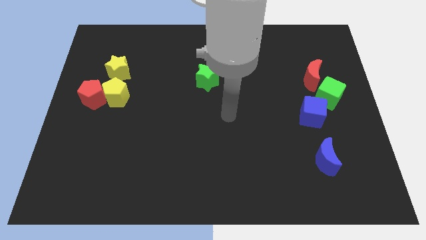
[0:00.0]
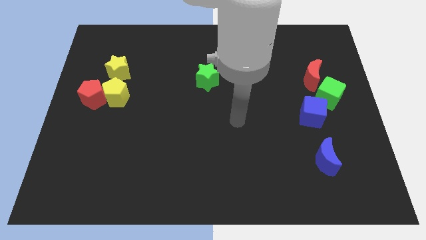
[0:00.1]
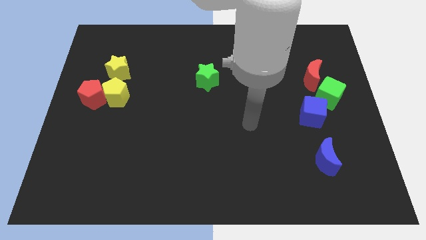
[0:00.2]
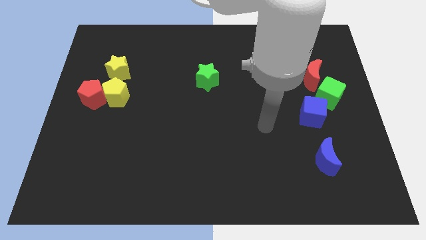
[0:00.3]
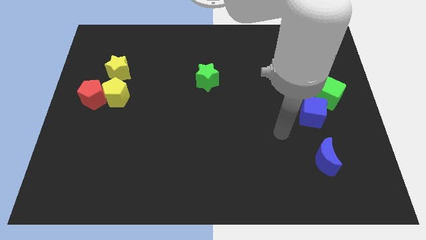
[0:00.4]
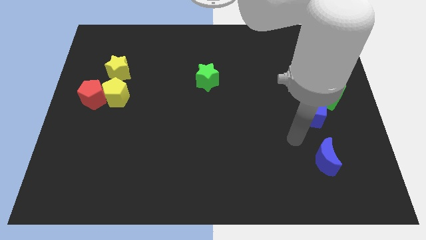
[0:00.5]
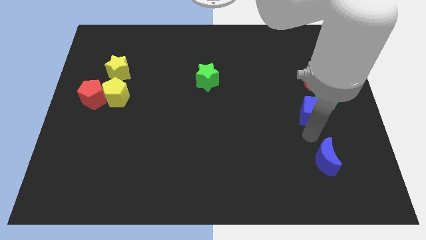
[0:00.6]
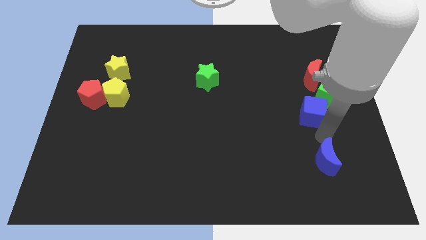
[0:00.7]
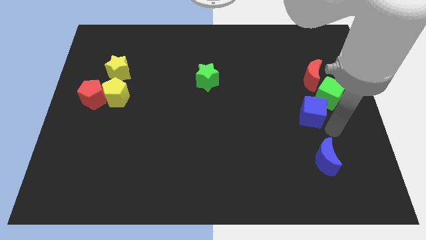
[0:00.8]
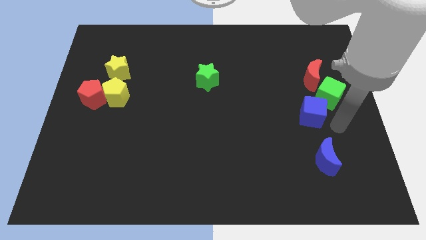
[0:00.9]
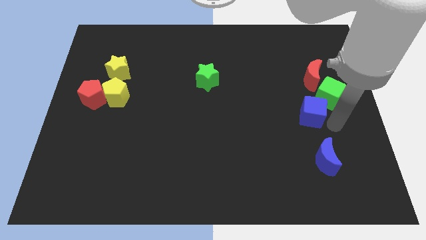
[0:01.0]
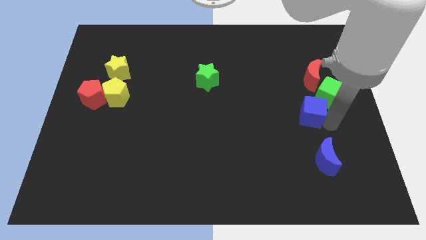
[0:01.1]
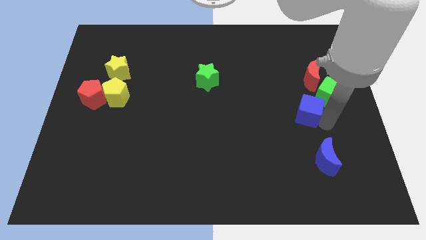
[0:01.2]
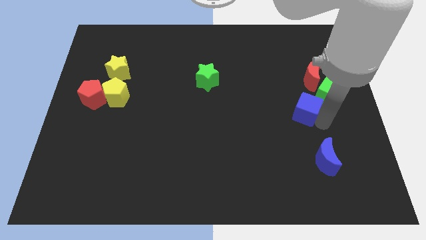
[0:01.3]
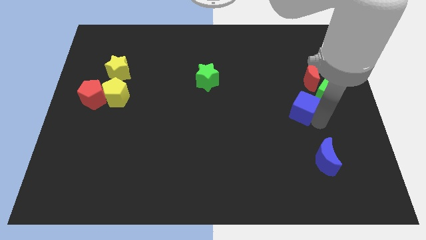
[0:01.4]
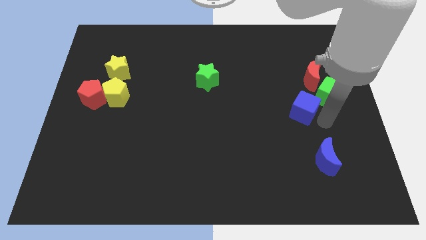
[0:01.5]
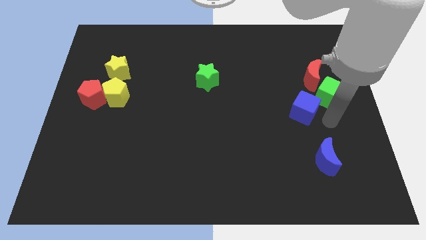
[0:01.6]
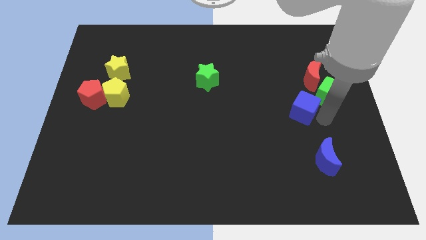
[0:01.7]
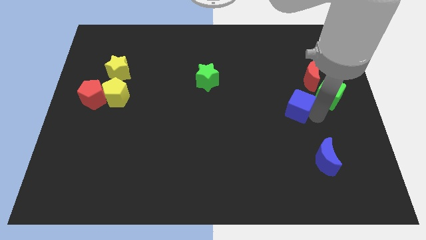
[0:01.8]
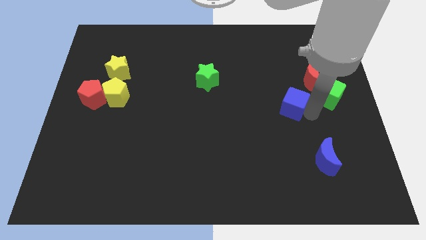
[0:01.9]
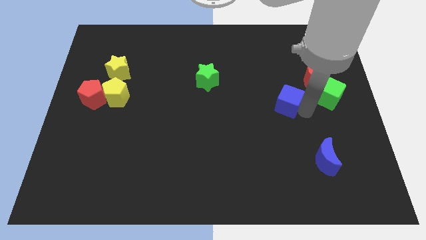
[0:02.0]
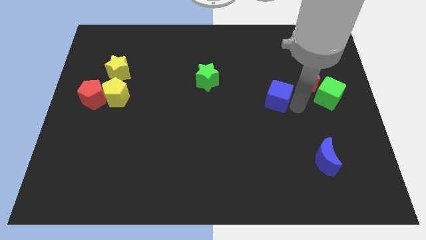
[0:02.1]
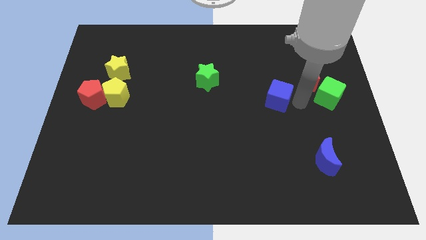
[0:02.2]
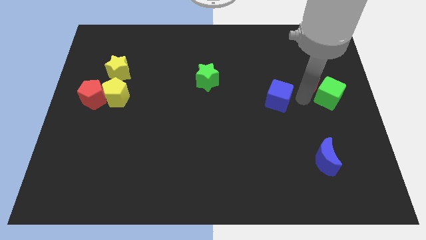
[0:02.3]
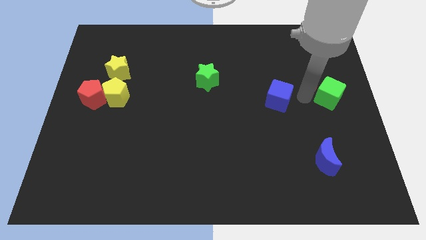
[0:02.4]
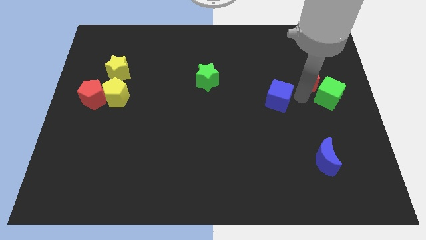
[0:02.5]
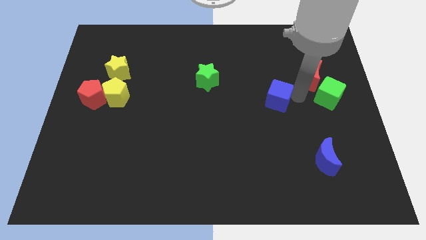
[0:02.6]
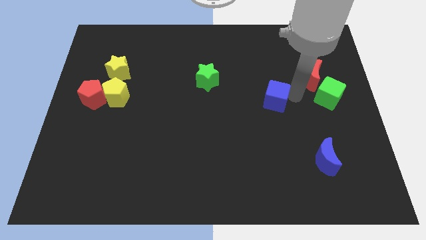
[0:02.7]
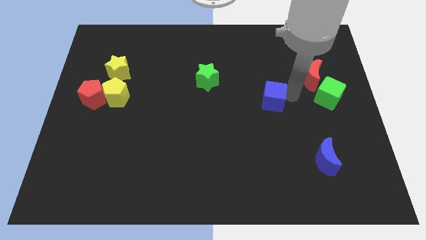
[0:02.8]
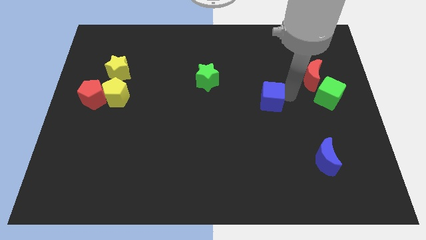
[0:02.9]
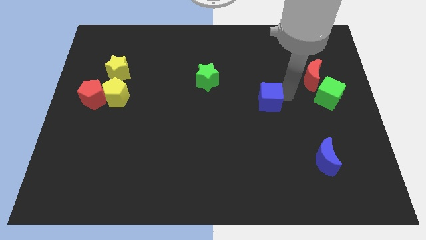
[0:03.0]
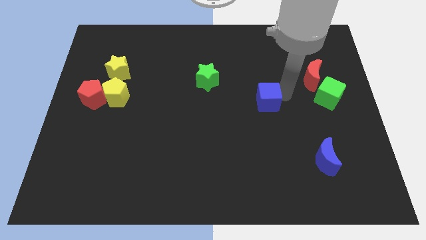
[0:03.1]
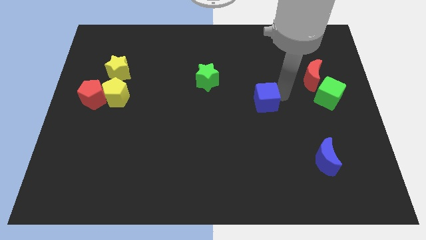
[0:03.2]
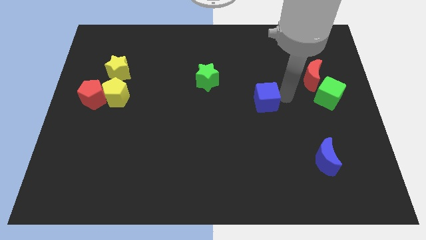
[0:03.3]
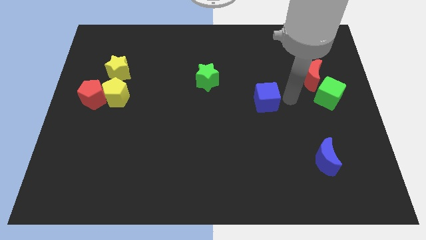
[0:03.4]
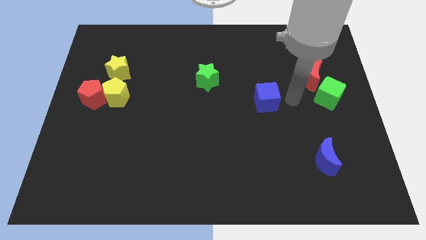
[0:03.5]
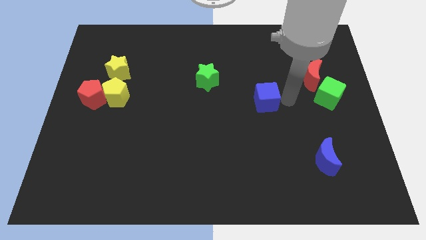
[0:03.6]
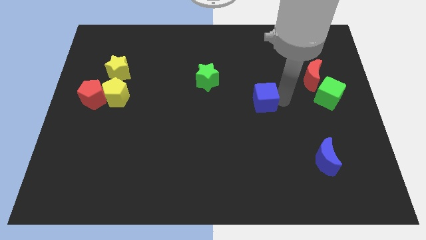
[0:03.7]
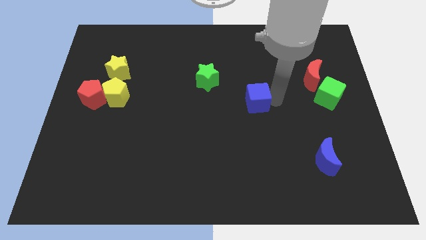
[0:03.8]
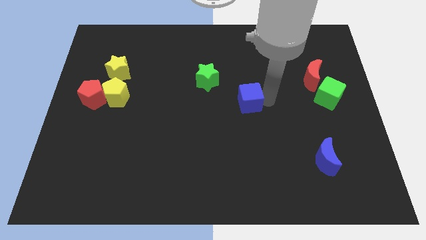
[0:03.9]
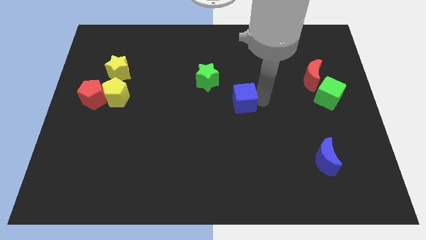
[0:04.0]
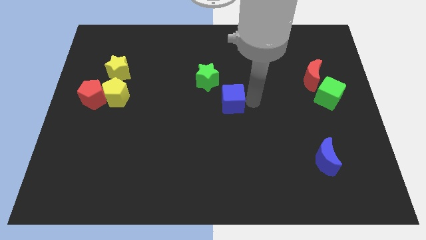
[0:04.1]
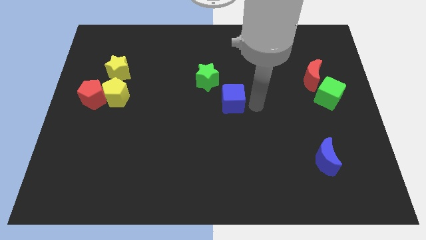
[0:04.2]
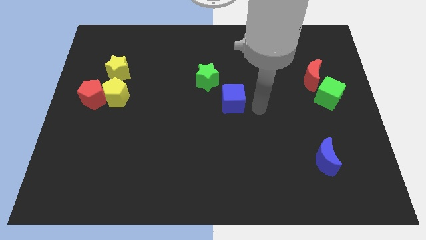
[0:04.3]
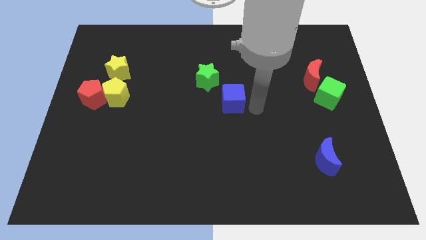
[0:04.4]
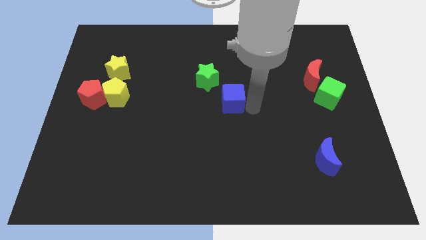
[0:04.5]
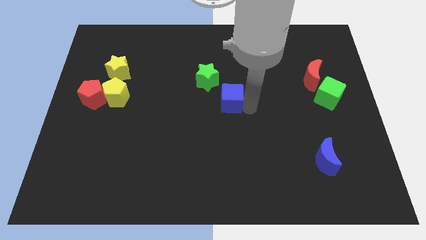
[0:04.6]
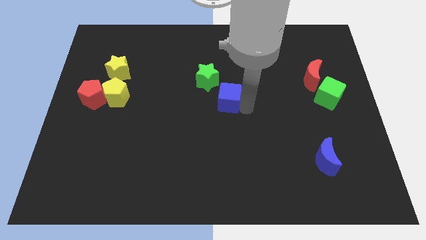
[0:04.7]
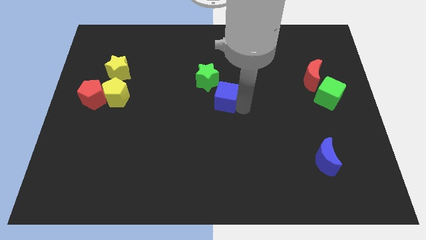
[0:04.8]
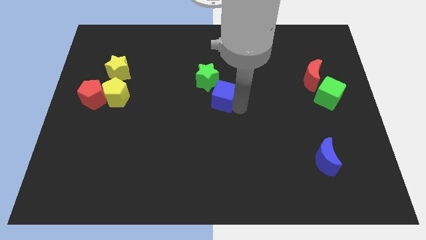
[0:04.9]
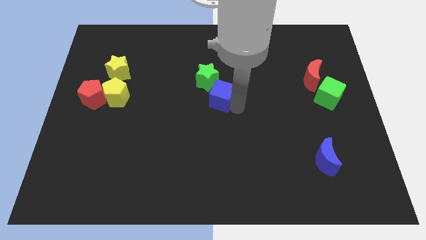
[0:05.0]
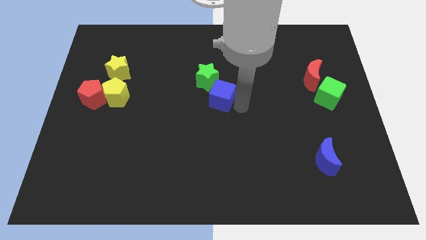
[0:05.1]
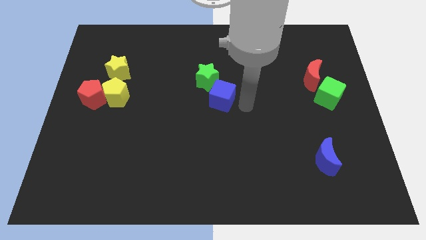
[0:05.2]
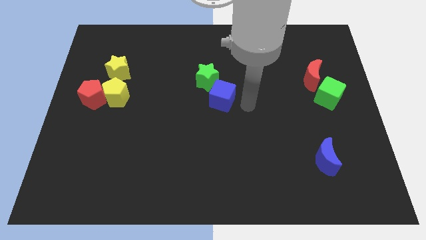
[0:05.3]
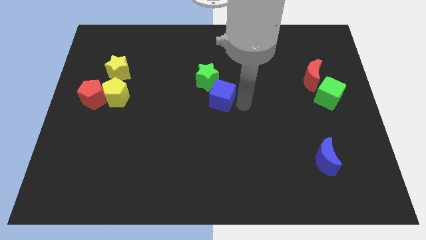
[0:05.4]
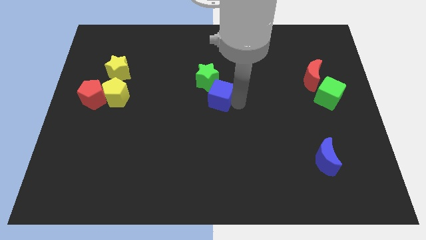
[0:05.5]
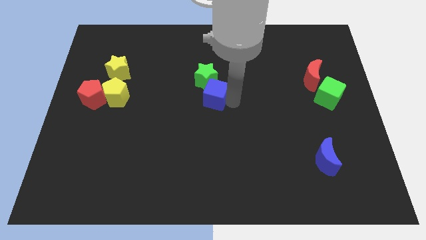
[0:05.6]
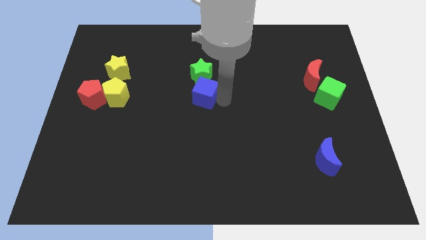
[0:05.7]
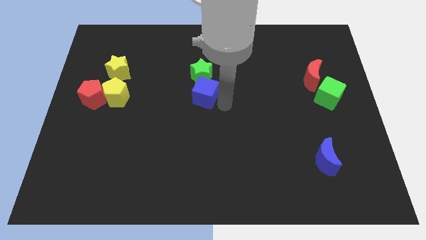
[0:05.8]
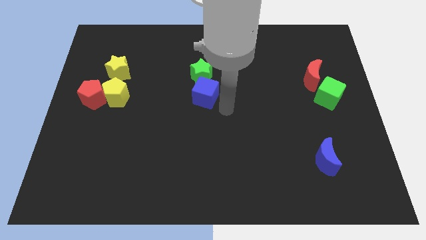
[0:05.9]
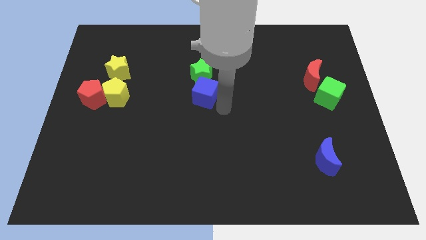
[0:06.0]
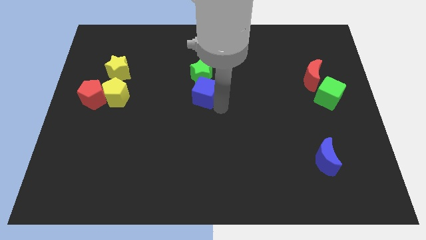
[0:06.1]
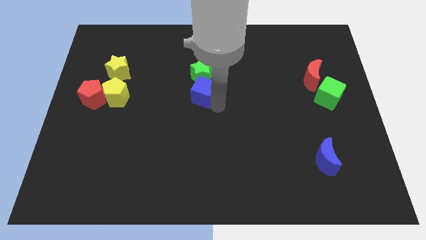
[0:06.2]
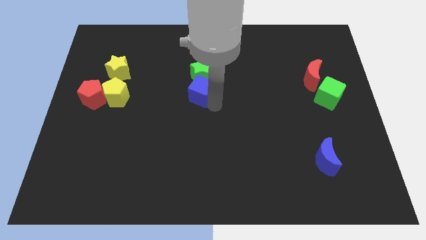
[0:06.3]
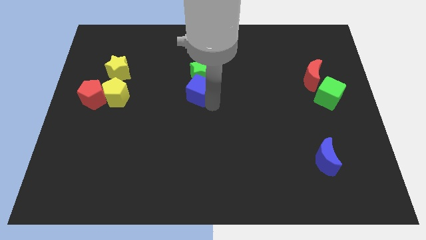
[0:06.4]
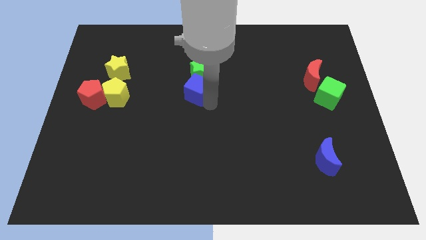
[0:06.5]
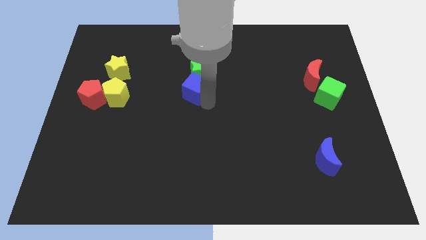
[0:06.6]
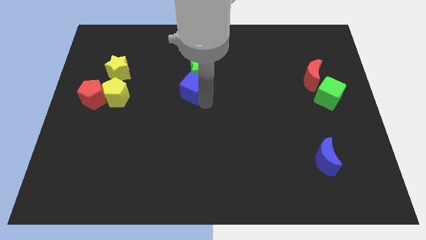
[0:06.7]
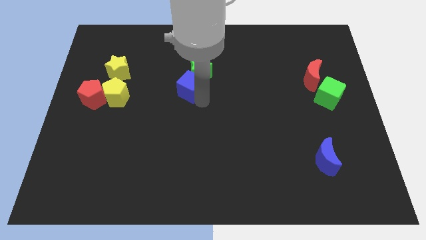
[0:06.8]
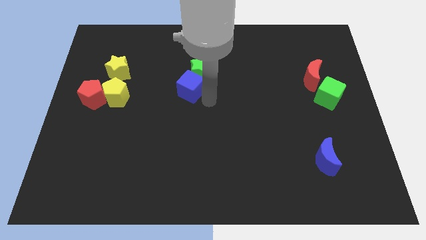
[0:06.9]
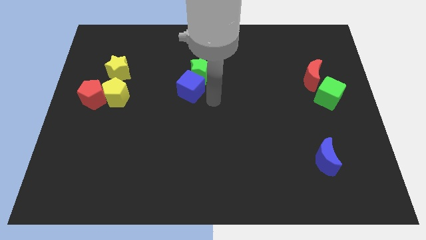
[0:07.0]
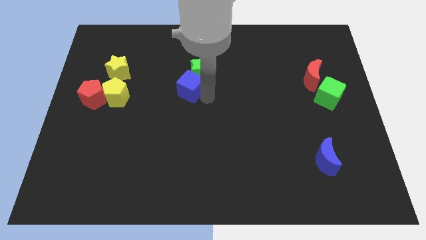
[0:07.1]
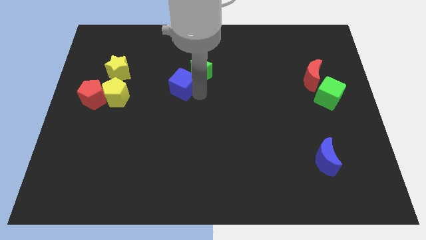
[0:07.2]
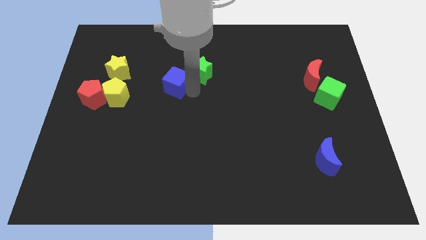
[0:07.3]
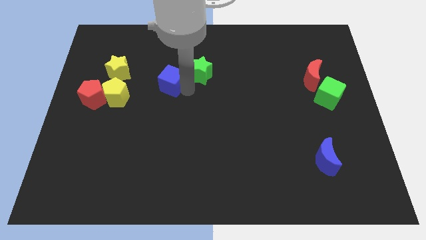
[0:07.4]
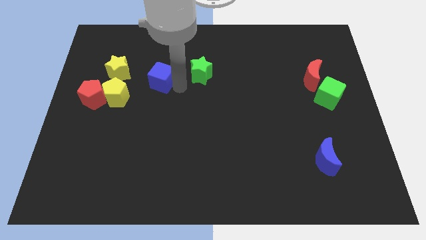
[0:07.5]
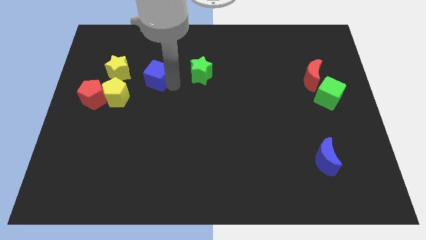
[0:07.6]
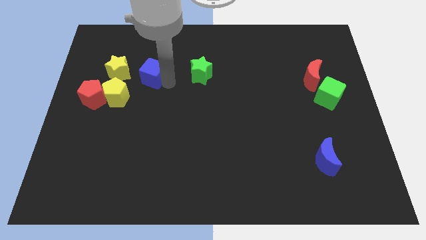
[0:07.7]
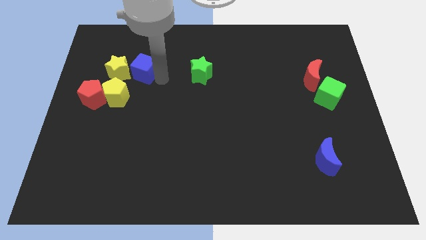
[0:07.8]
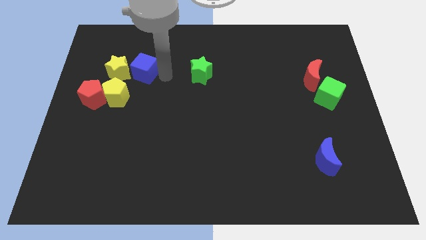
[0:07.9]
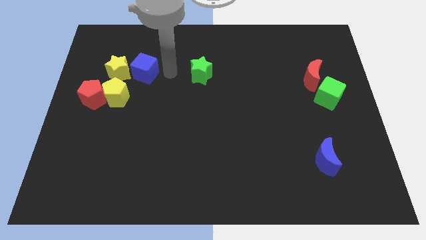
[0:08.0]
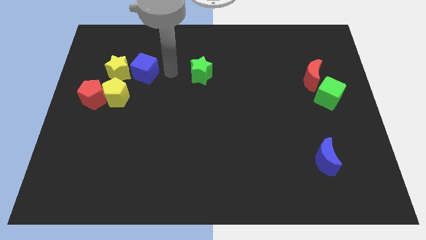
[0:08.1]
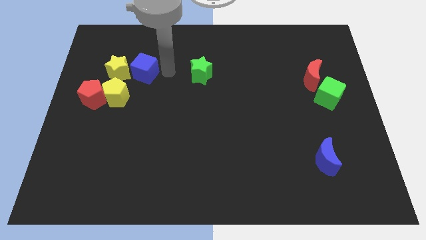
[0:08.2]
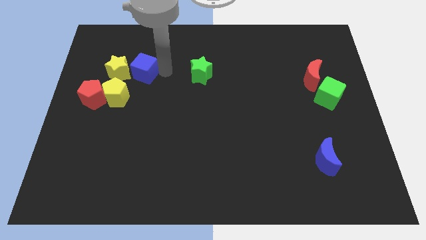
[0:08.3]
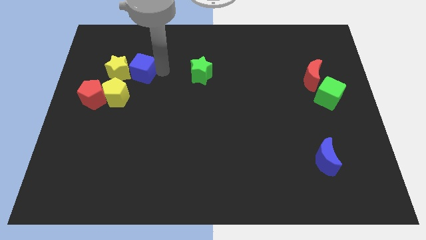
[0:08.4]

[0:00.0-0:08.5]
move the blue cube next to the yellow star
